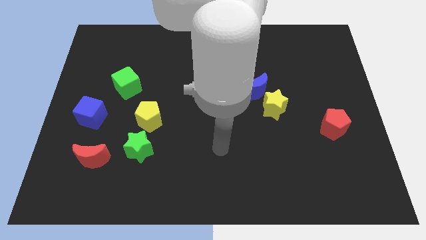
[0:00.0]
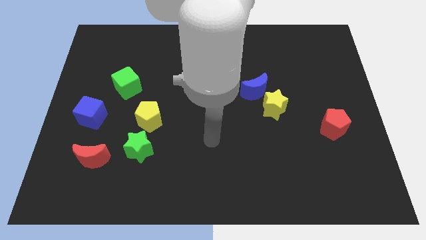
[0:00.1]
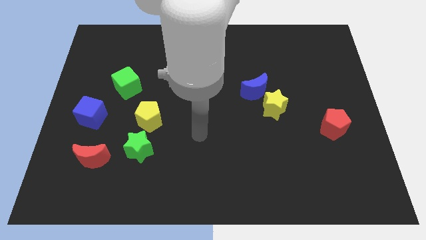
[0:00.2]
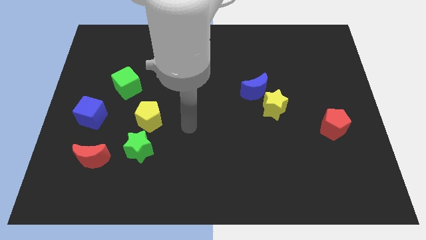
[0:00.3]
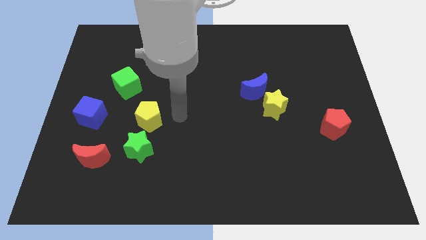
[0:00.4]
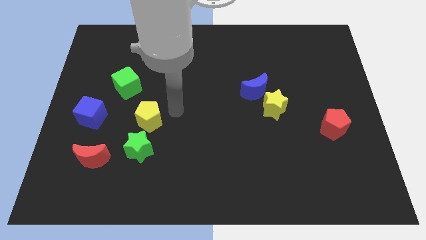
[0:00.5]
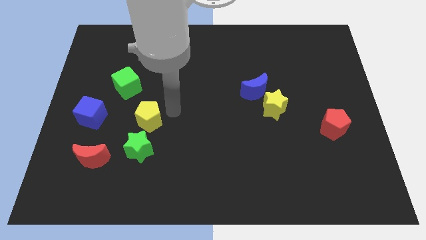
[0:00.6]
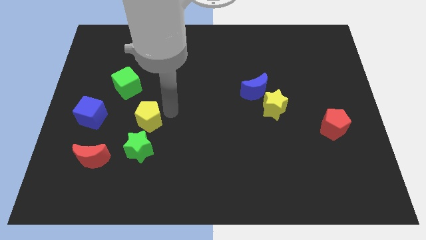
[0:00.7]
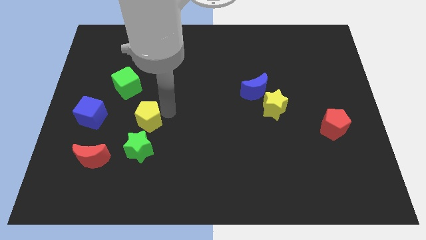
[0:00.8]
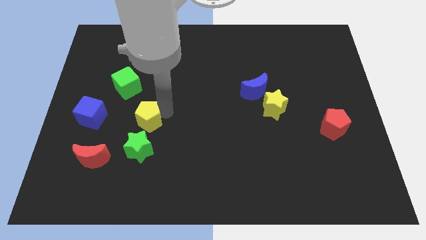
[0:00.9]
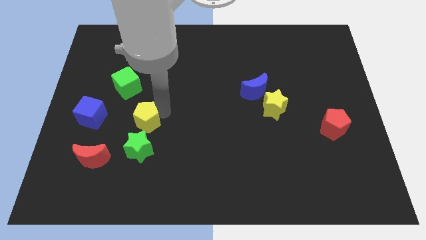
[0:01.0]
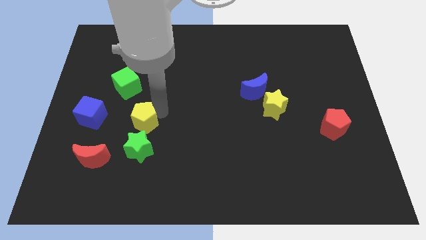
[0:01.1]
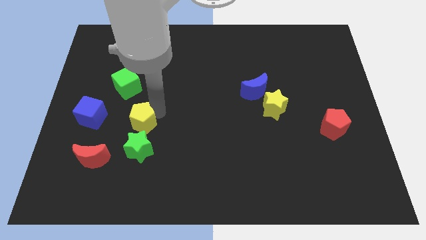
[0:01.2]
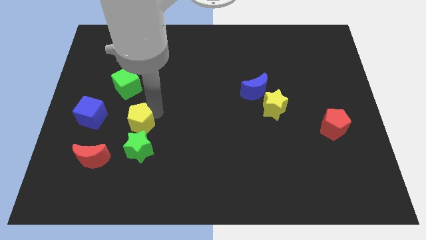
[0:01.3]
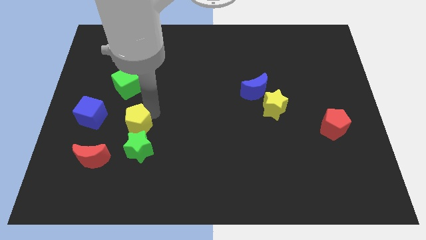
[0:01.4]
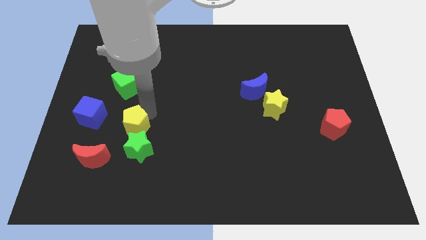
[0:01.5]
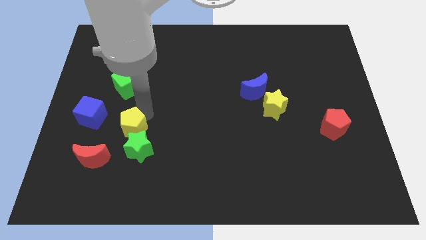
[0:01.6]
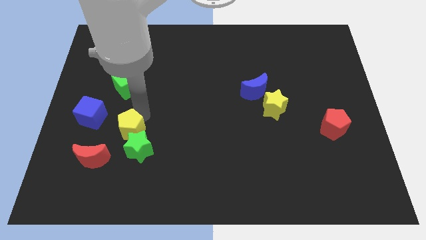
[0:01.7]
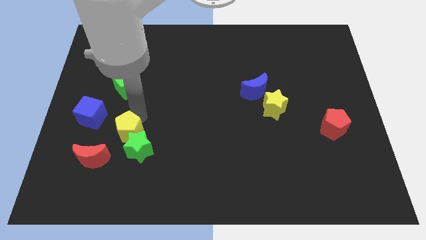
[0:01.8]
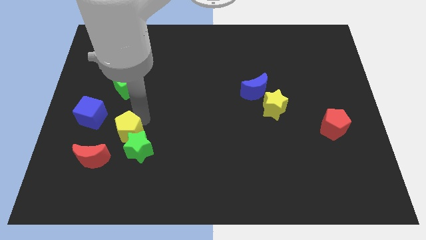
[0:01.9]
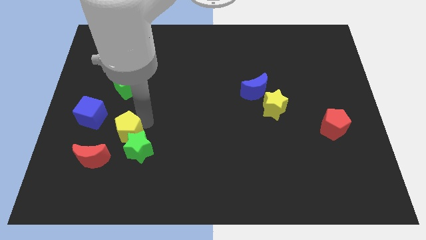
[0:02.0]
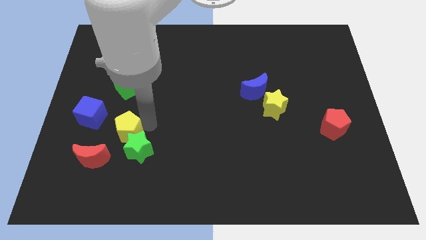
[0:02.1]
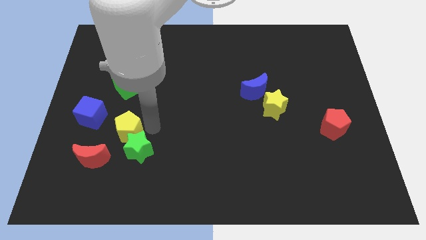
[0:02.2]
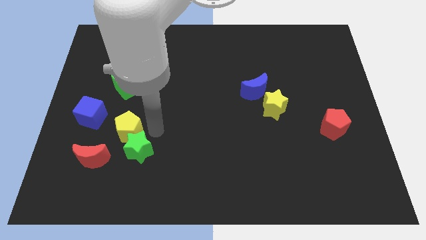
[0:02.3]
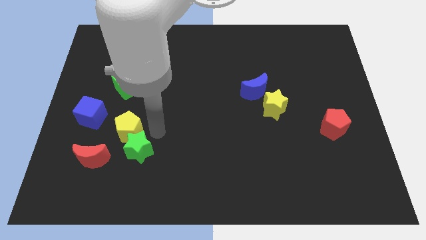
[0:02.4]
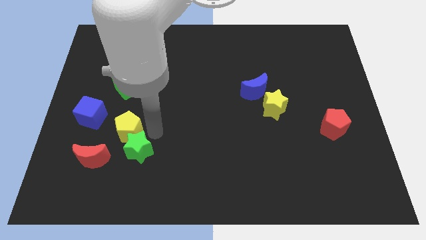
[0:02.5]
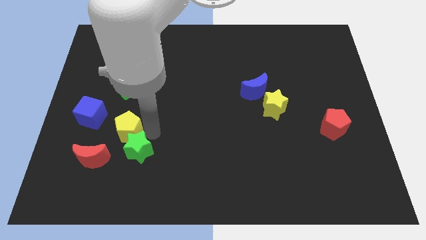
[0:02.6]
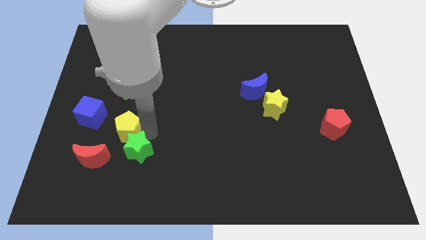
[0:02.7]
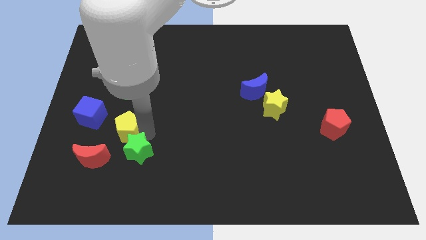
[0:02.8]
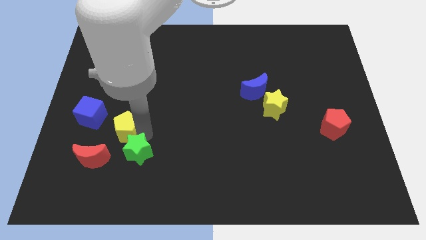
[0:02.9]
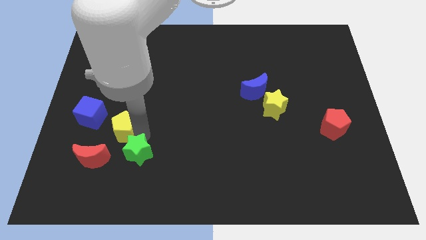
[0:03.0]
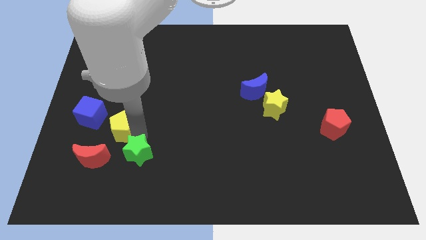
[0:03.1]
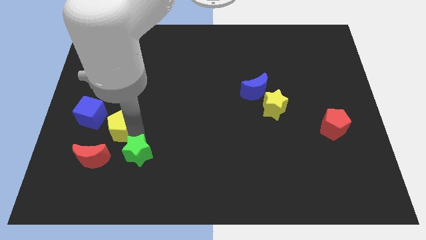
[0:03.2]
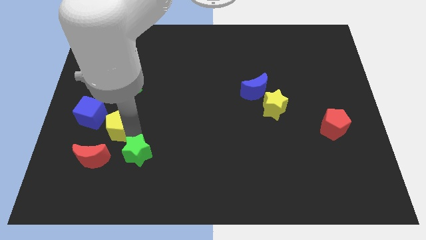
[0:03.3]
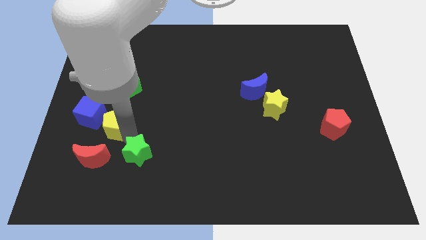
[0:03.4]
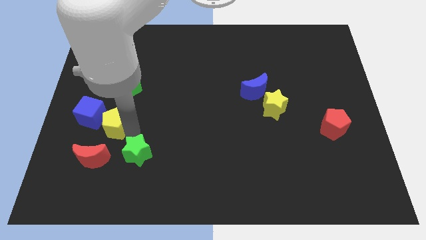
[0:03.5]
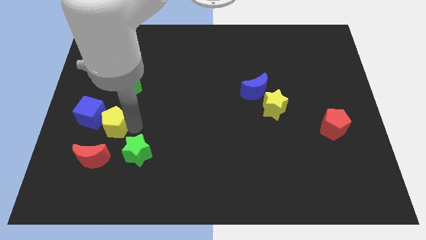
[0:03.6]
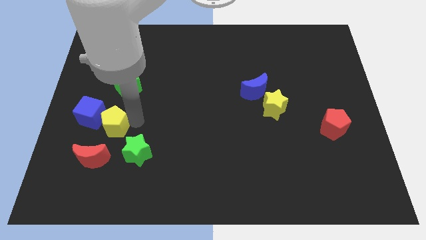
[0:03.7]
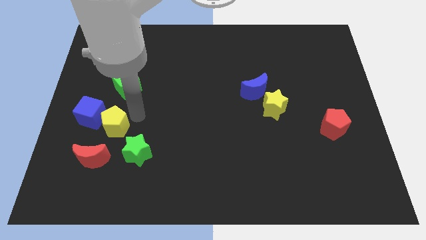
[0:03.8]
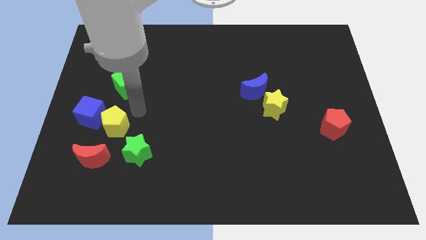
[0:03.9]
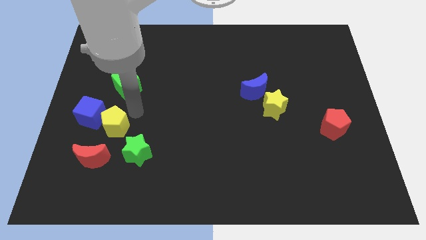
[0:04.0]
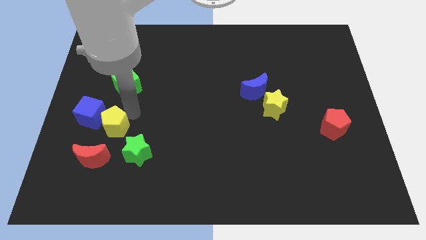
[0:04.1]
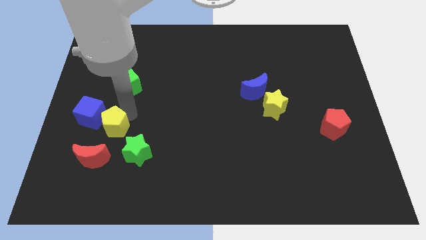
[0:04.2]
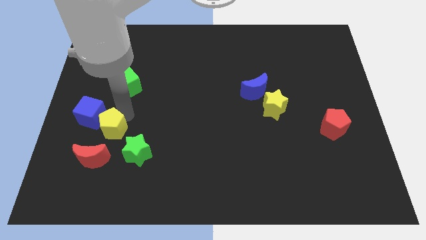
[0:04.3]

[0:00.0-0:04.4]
move the yellow pentagon downwards and then to the left a little

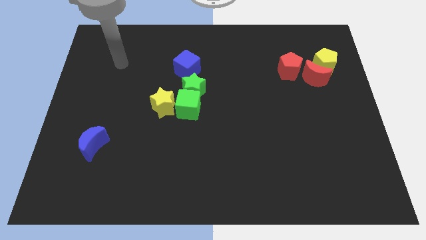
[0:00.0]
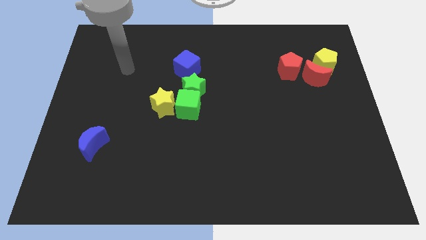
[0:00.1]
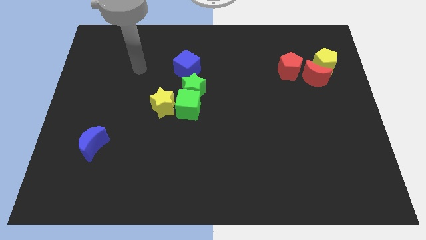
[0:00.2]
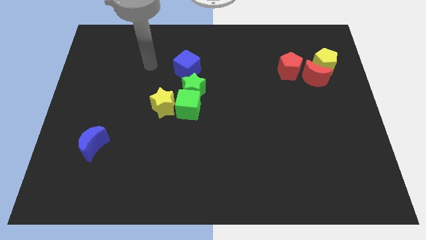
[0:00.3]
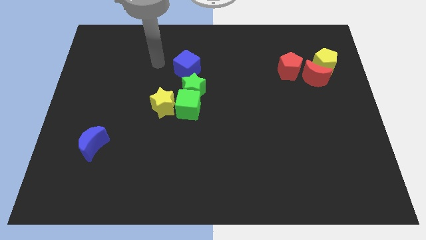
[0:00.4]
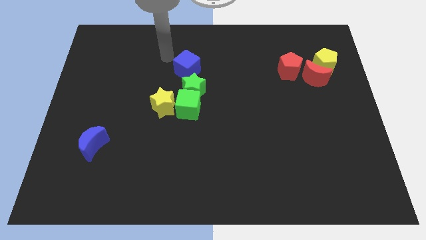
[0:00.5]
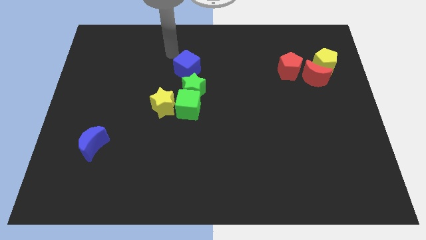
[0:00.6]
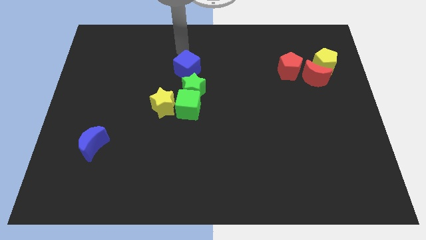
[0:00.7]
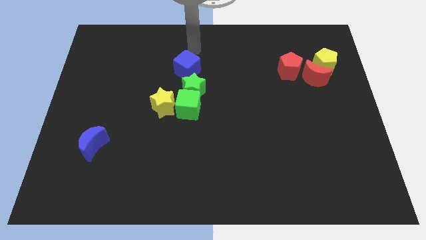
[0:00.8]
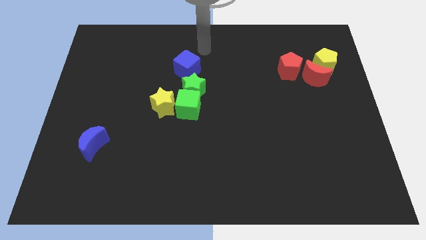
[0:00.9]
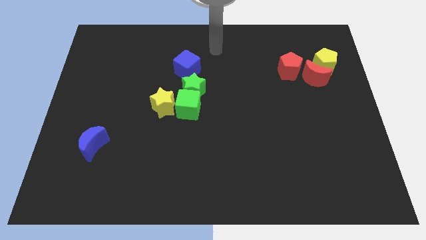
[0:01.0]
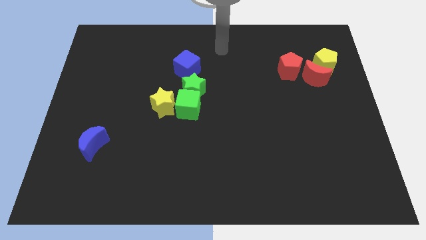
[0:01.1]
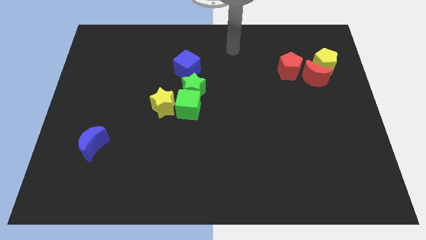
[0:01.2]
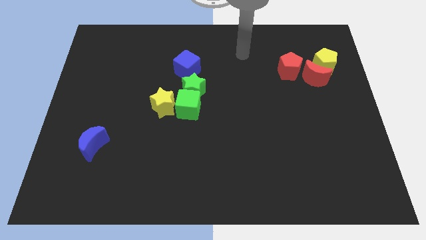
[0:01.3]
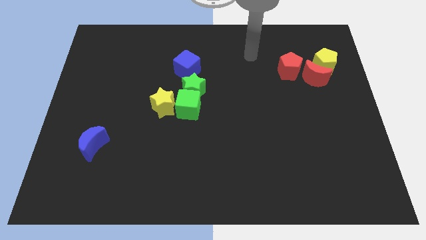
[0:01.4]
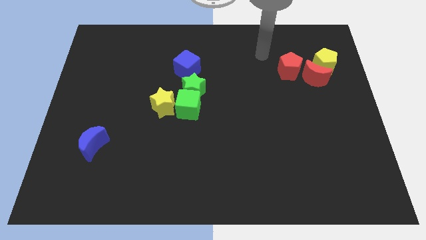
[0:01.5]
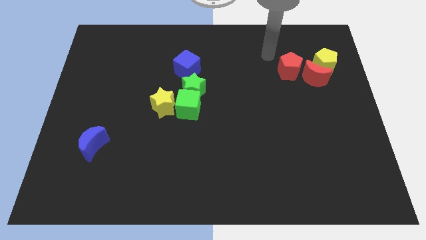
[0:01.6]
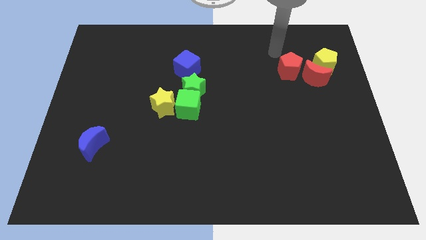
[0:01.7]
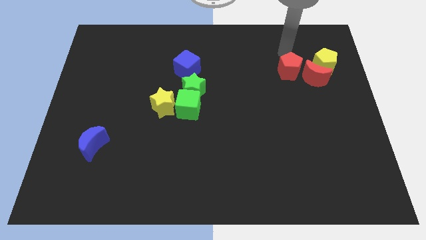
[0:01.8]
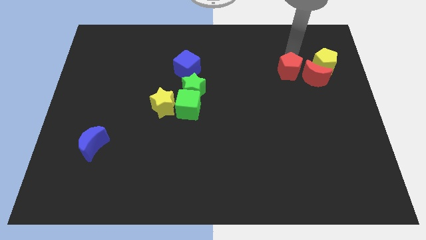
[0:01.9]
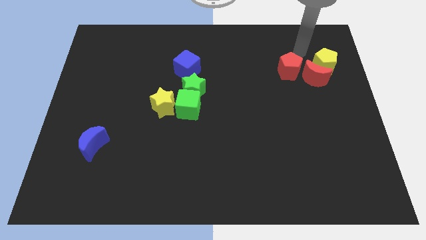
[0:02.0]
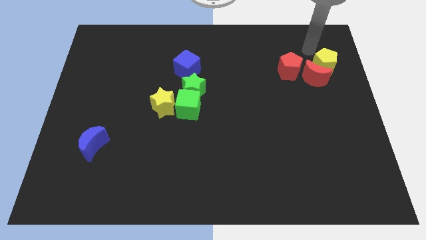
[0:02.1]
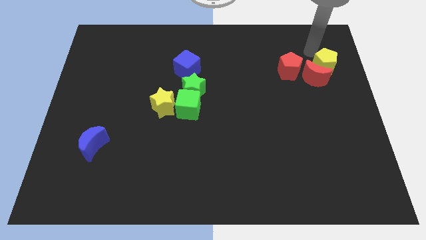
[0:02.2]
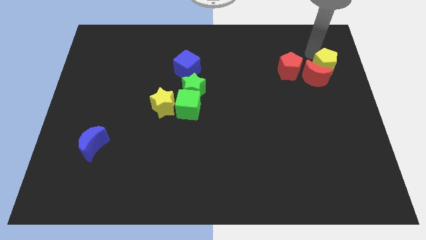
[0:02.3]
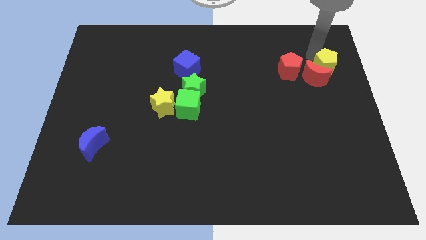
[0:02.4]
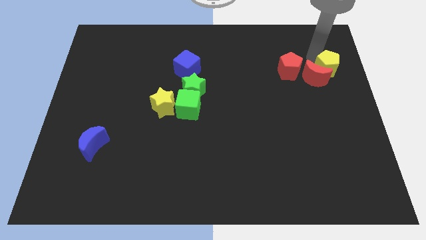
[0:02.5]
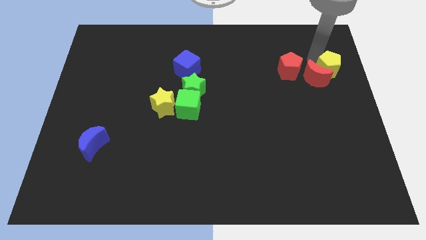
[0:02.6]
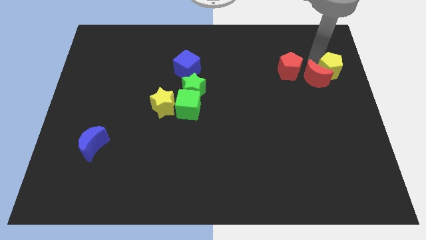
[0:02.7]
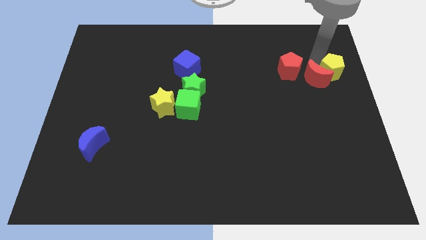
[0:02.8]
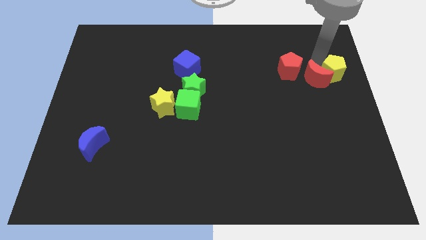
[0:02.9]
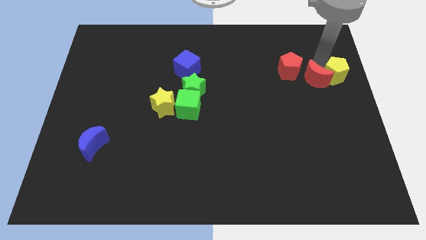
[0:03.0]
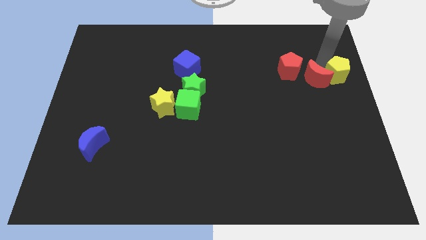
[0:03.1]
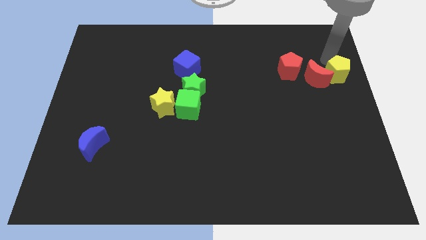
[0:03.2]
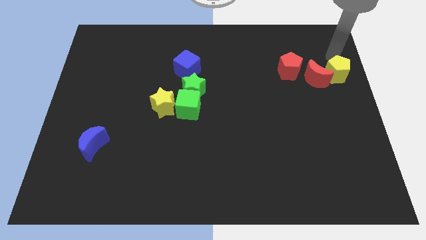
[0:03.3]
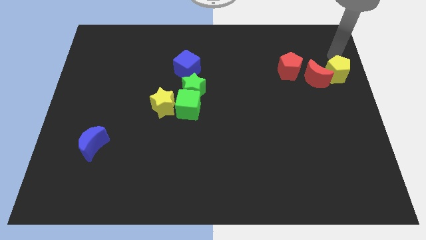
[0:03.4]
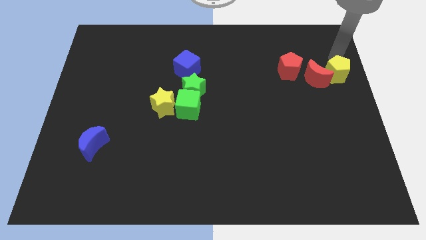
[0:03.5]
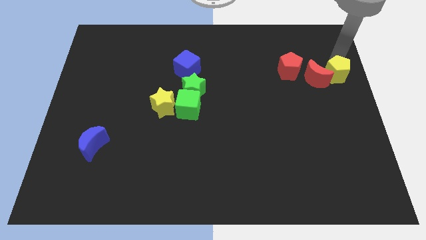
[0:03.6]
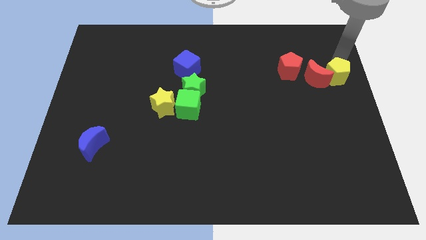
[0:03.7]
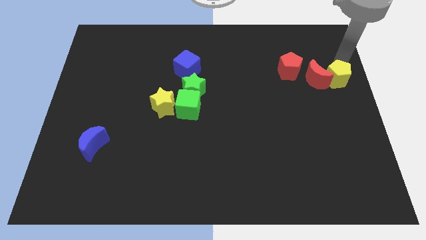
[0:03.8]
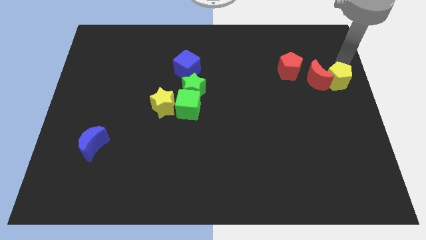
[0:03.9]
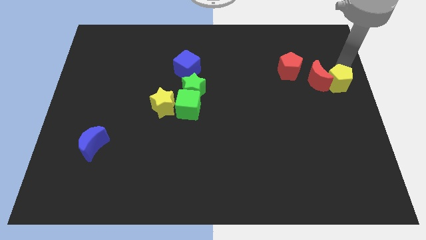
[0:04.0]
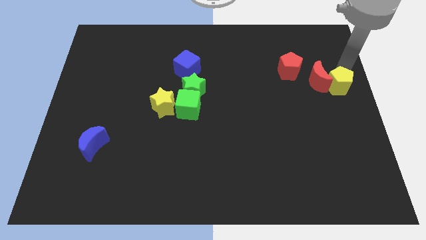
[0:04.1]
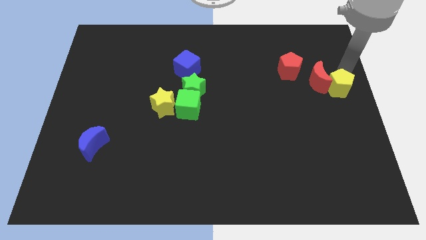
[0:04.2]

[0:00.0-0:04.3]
move the yellow pentagon down somewhat
